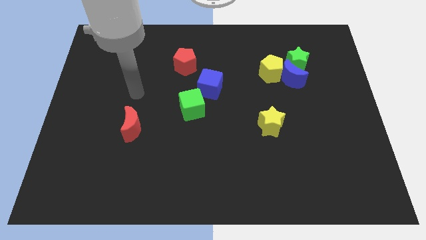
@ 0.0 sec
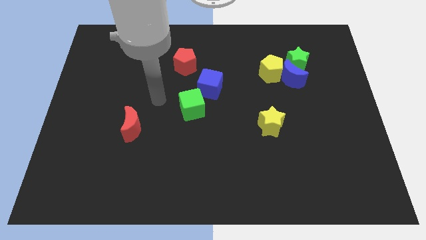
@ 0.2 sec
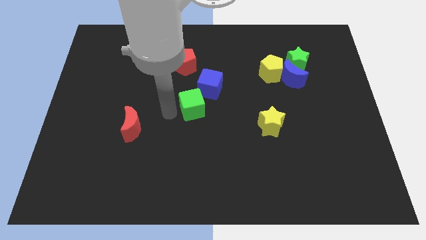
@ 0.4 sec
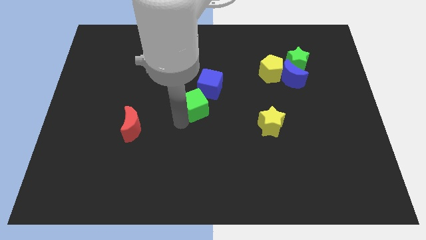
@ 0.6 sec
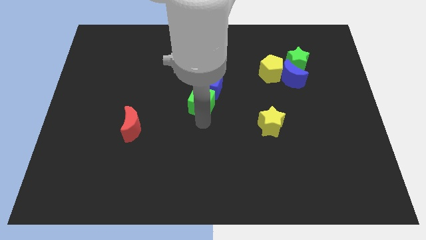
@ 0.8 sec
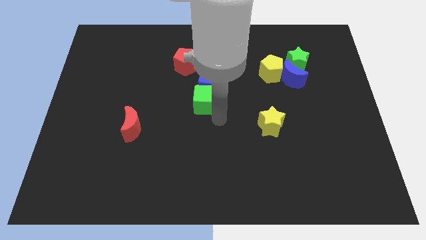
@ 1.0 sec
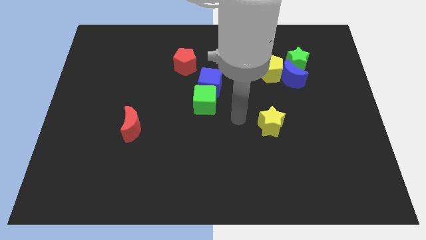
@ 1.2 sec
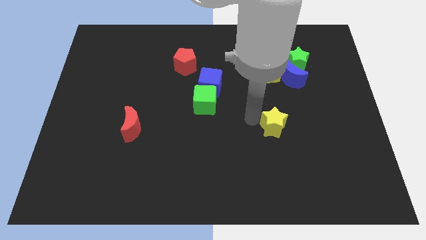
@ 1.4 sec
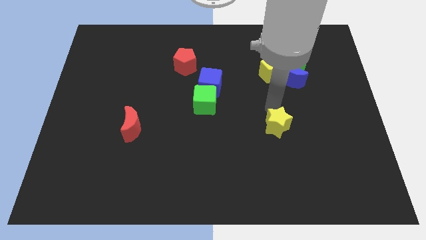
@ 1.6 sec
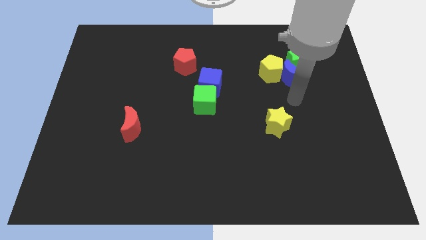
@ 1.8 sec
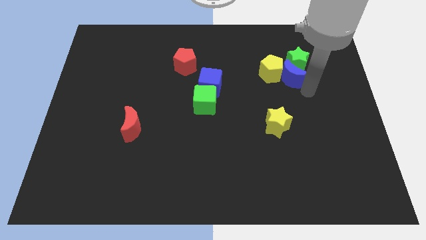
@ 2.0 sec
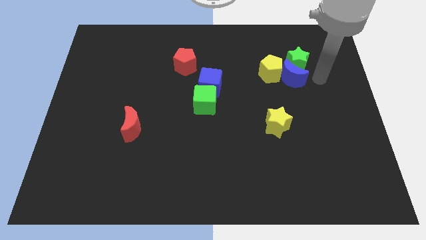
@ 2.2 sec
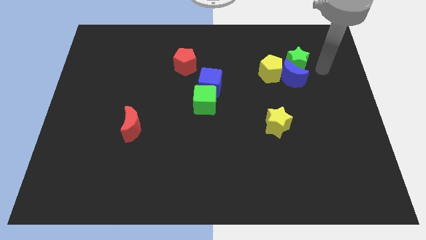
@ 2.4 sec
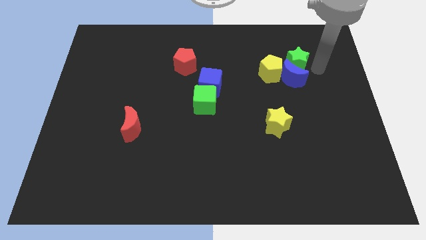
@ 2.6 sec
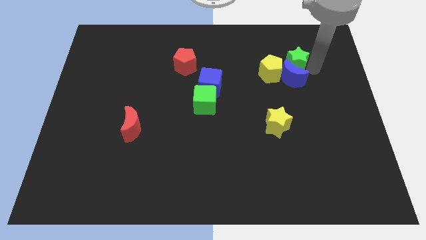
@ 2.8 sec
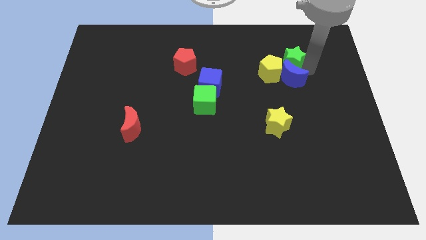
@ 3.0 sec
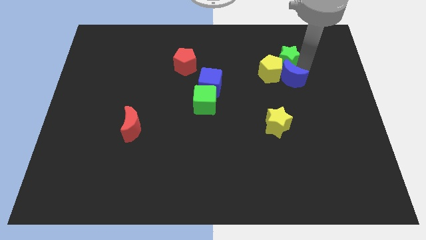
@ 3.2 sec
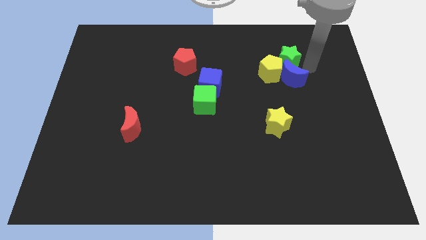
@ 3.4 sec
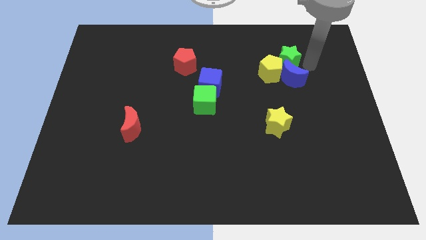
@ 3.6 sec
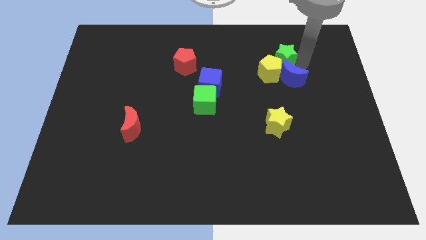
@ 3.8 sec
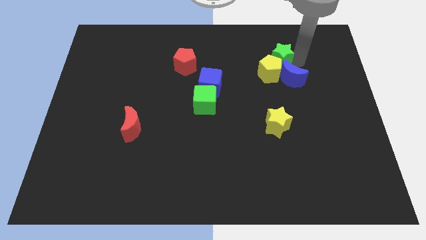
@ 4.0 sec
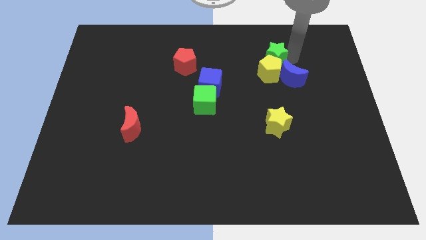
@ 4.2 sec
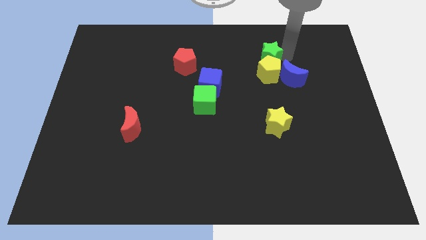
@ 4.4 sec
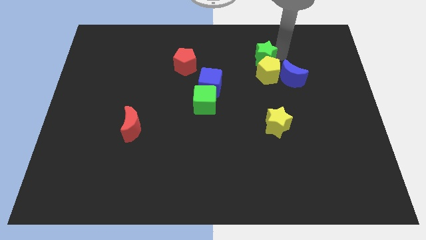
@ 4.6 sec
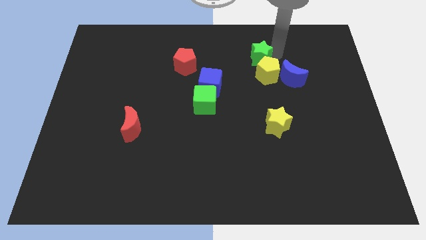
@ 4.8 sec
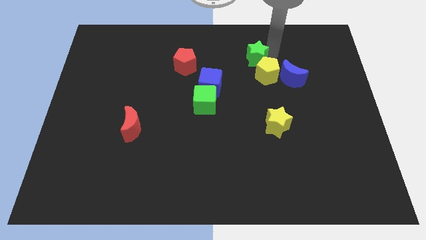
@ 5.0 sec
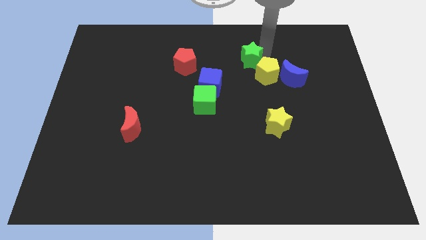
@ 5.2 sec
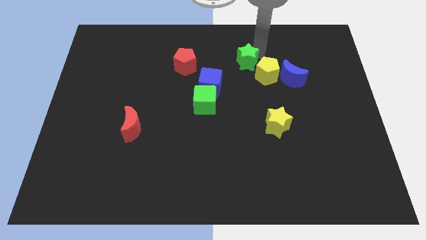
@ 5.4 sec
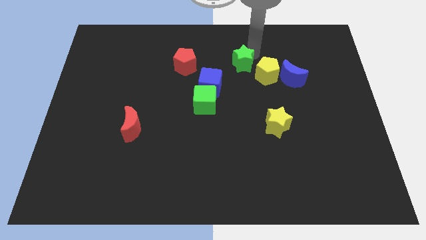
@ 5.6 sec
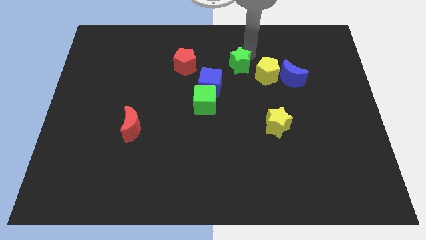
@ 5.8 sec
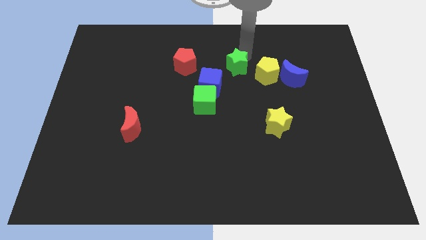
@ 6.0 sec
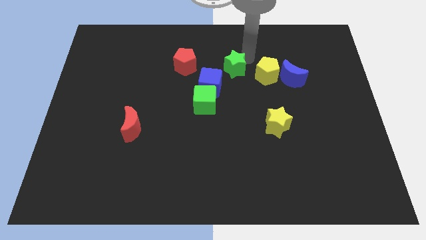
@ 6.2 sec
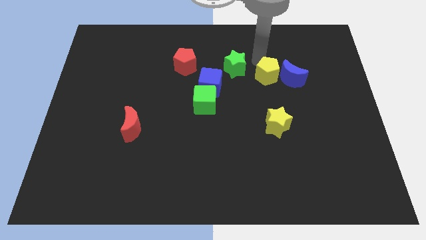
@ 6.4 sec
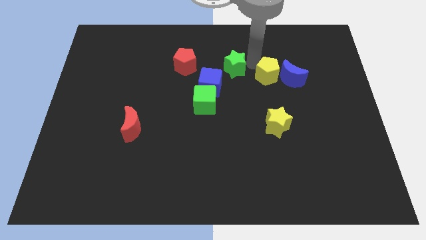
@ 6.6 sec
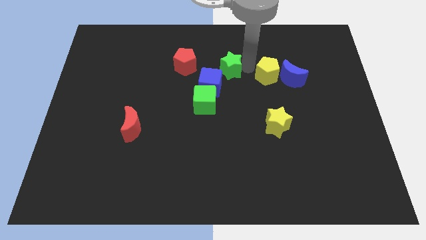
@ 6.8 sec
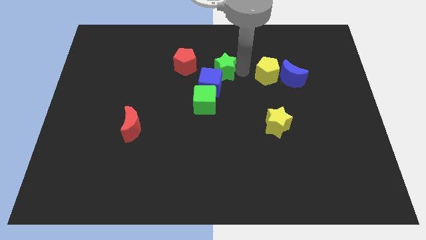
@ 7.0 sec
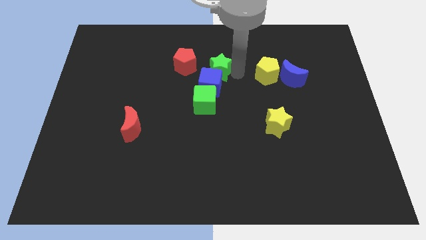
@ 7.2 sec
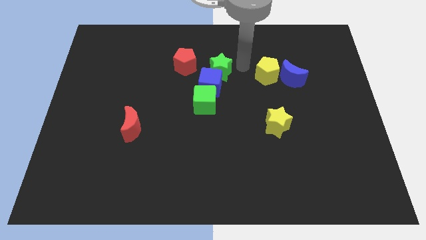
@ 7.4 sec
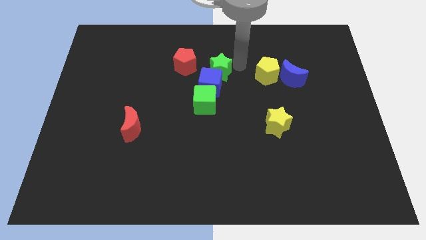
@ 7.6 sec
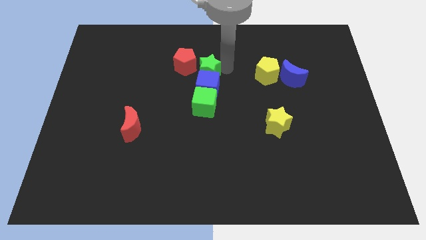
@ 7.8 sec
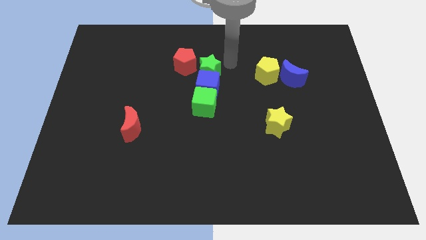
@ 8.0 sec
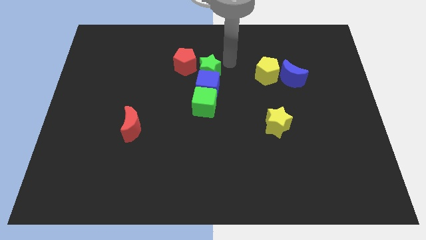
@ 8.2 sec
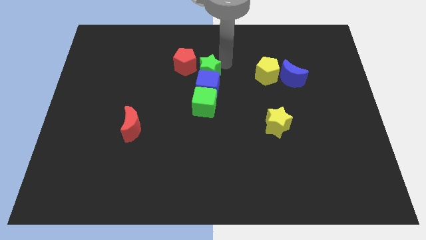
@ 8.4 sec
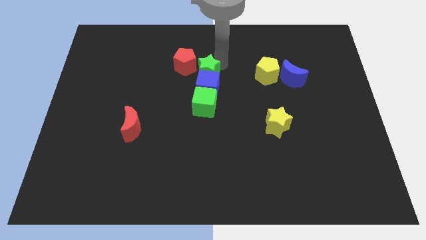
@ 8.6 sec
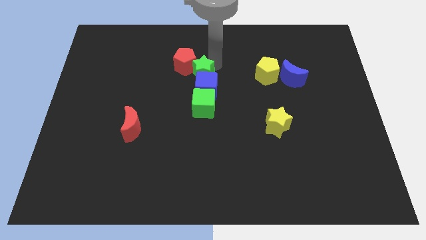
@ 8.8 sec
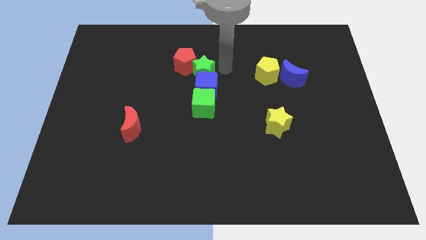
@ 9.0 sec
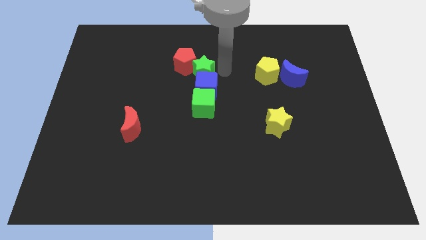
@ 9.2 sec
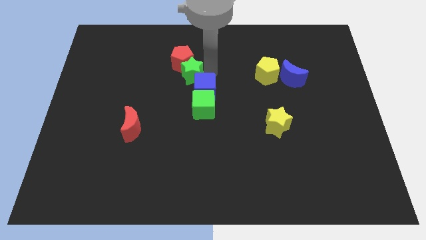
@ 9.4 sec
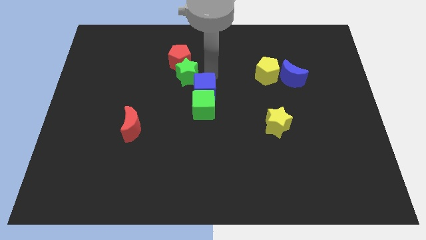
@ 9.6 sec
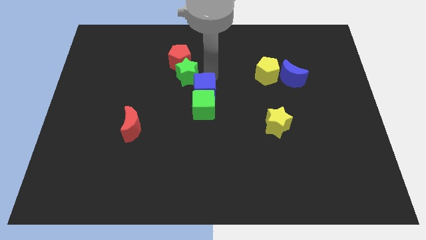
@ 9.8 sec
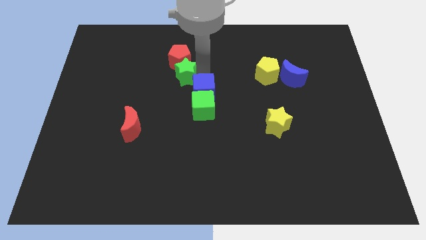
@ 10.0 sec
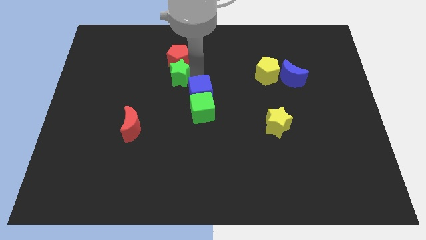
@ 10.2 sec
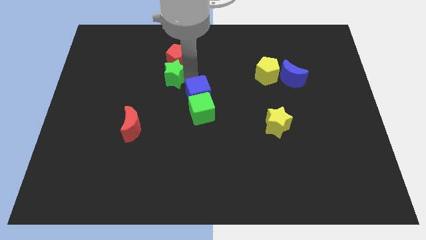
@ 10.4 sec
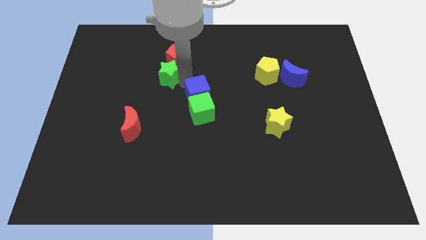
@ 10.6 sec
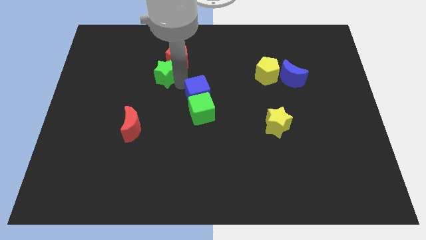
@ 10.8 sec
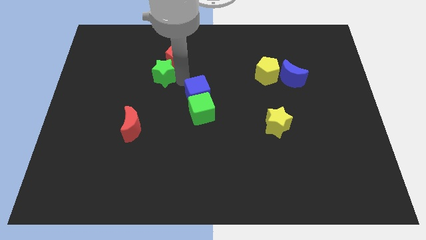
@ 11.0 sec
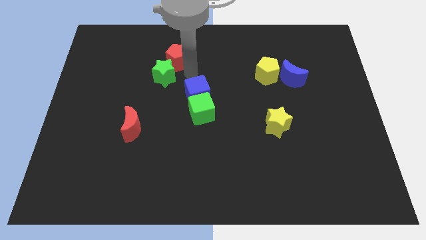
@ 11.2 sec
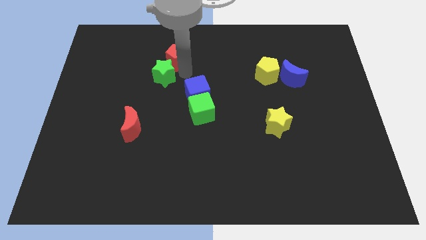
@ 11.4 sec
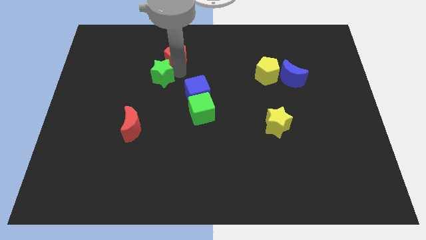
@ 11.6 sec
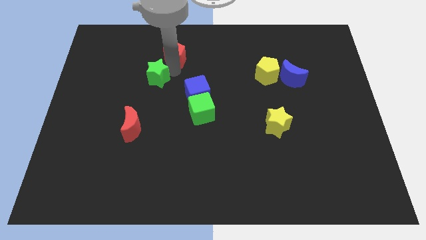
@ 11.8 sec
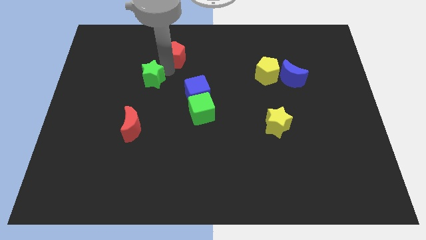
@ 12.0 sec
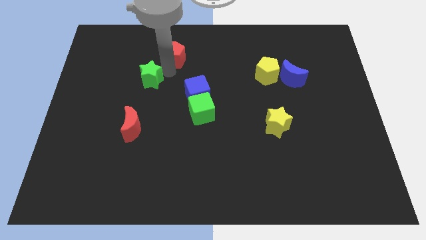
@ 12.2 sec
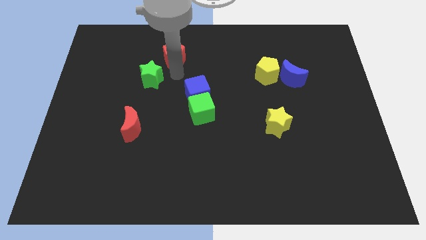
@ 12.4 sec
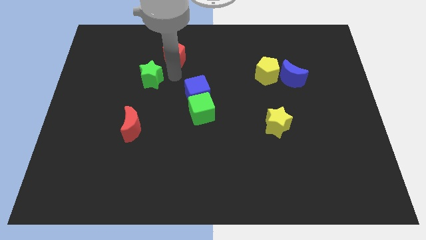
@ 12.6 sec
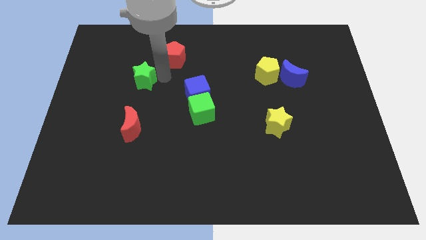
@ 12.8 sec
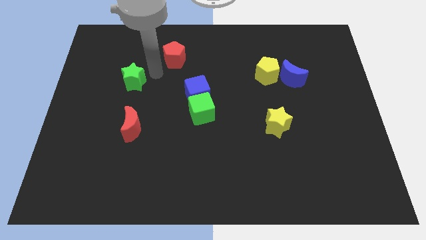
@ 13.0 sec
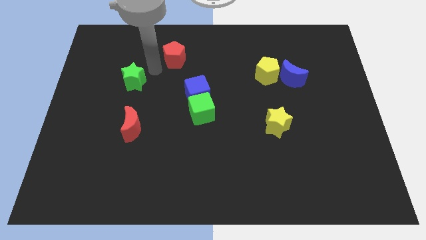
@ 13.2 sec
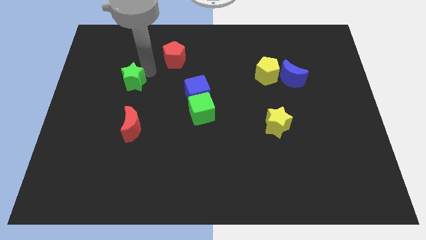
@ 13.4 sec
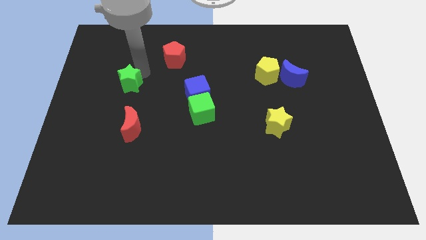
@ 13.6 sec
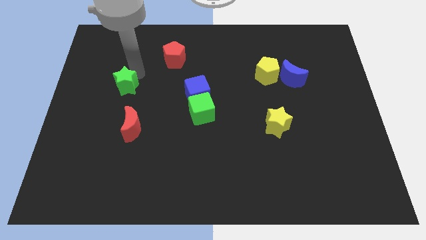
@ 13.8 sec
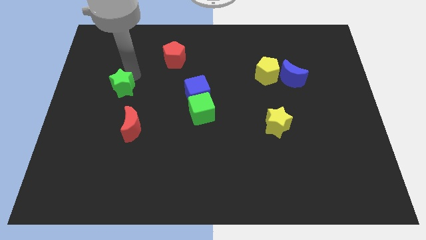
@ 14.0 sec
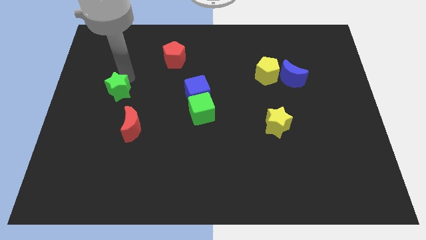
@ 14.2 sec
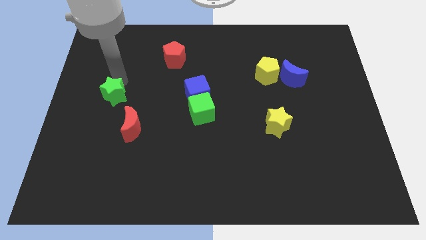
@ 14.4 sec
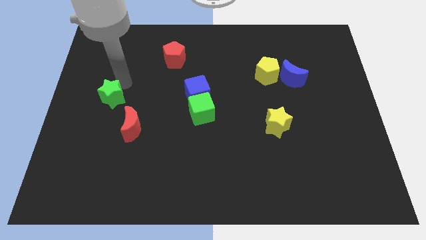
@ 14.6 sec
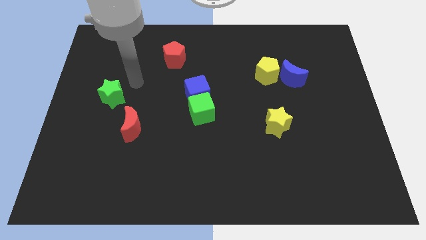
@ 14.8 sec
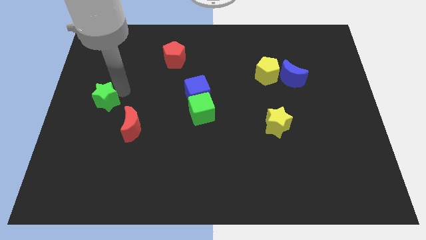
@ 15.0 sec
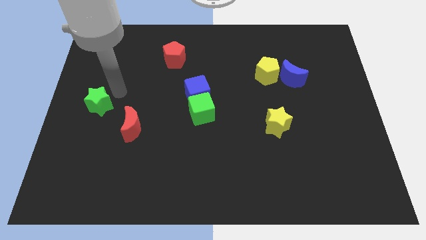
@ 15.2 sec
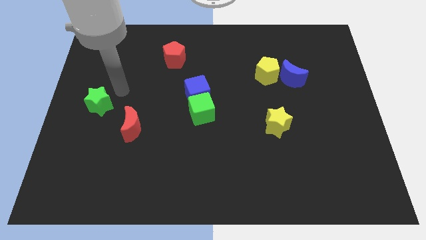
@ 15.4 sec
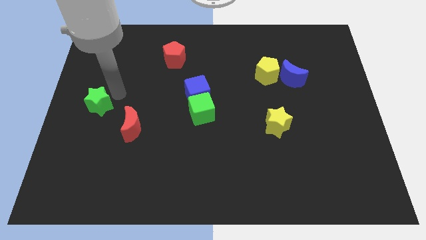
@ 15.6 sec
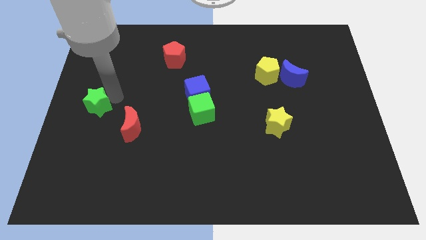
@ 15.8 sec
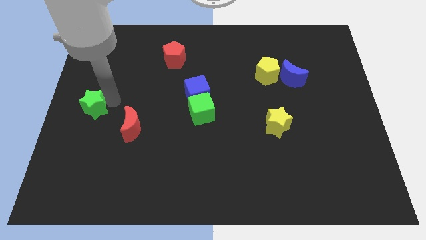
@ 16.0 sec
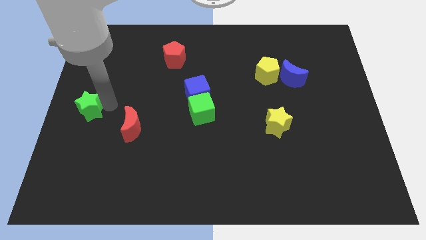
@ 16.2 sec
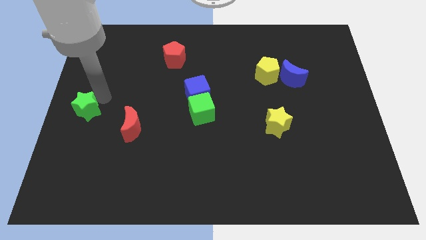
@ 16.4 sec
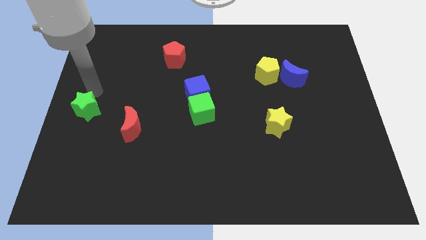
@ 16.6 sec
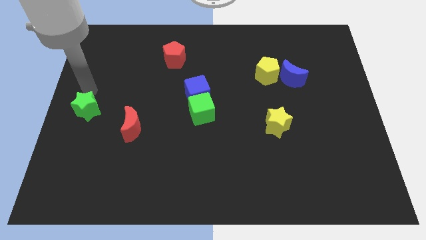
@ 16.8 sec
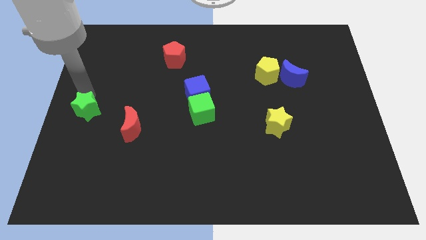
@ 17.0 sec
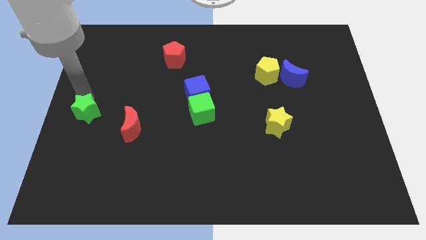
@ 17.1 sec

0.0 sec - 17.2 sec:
move the green star to the left of the red moon
